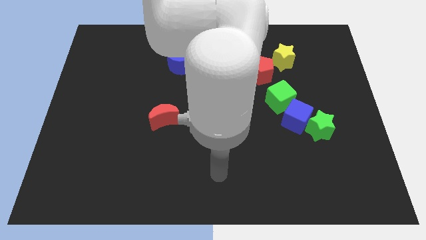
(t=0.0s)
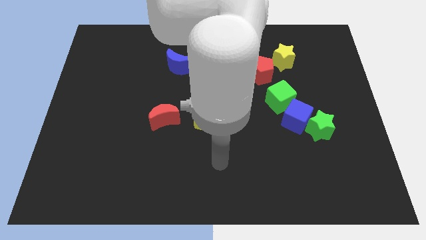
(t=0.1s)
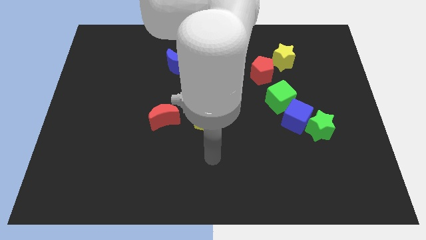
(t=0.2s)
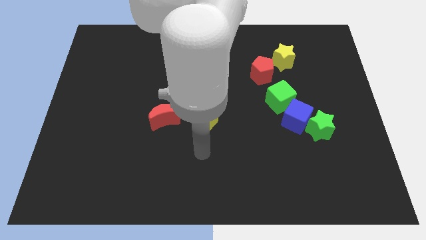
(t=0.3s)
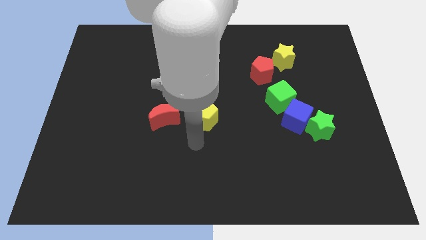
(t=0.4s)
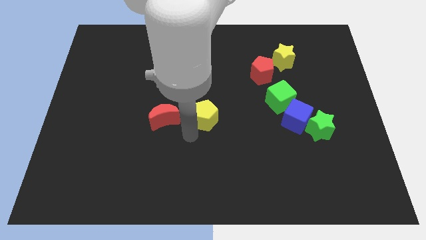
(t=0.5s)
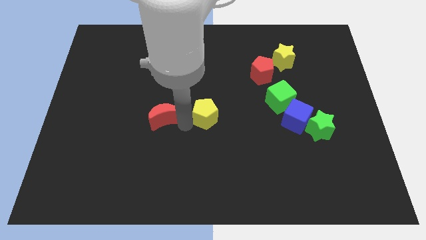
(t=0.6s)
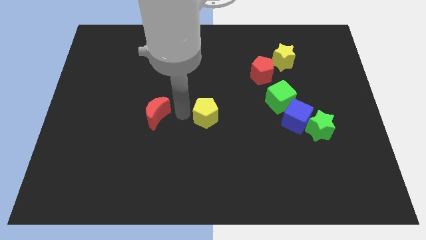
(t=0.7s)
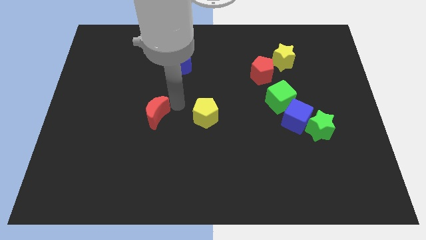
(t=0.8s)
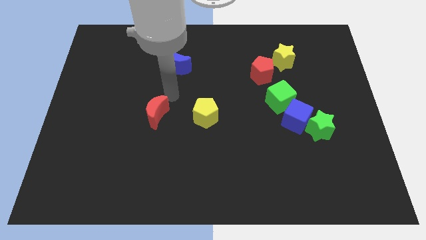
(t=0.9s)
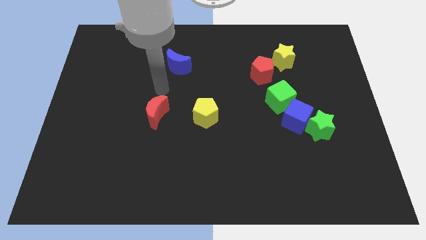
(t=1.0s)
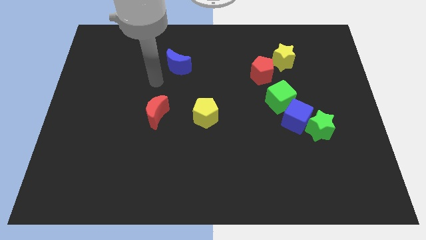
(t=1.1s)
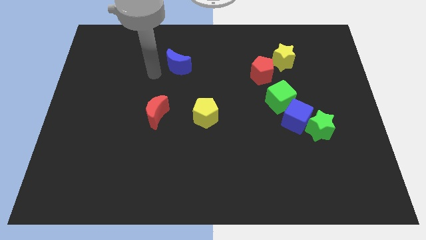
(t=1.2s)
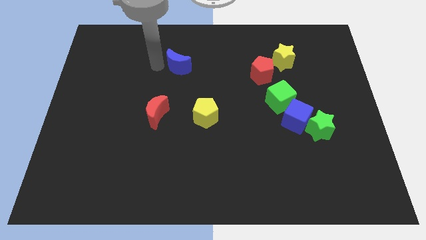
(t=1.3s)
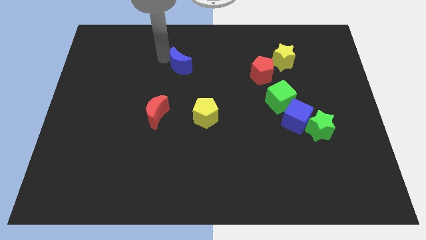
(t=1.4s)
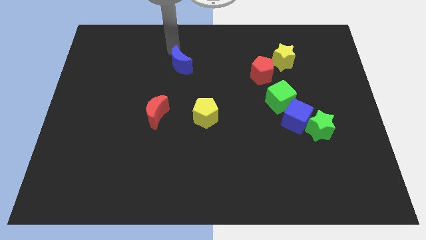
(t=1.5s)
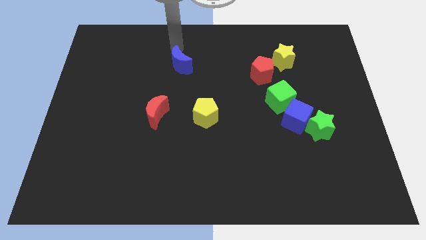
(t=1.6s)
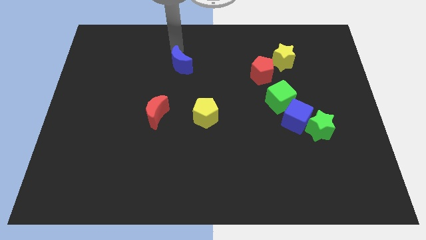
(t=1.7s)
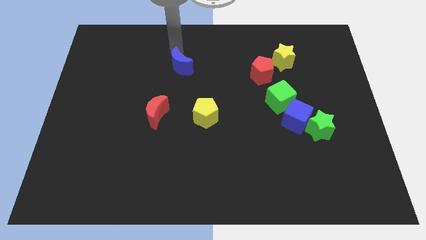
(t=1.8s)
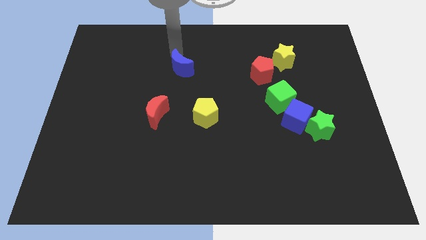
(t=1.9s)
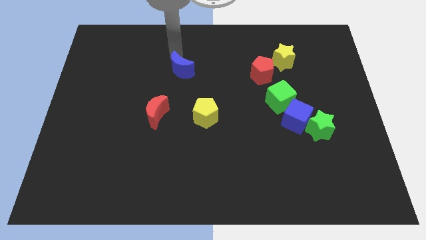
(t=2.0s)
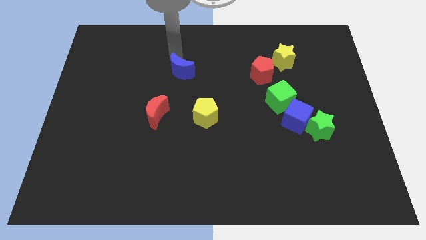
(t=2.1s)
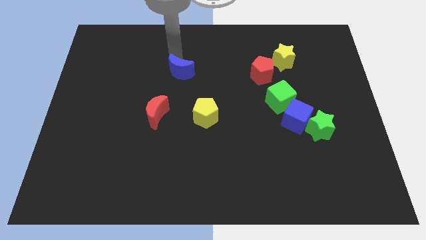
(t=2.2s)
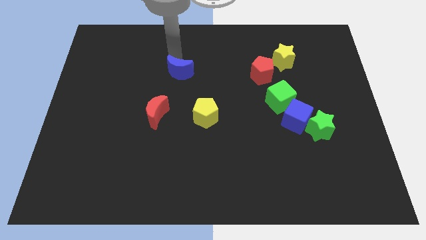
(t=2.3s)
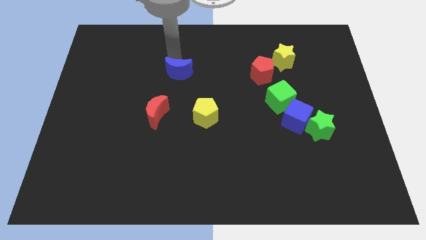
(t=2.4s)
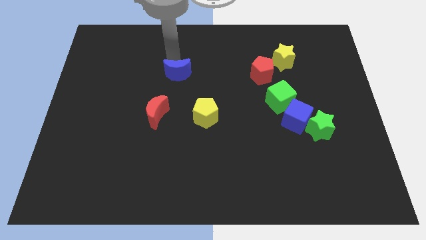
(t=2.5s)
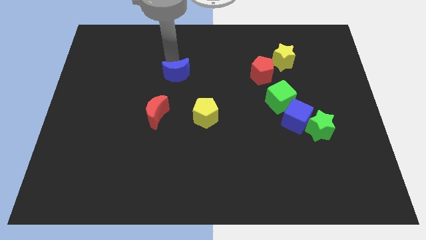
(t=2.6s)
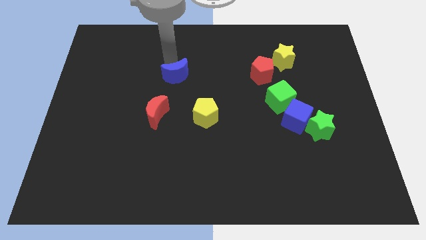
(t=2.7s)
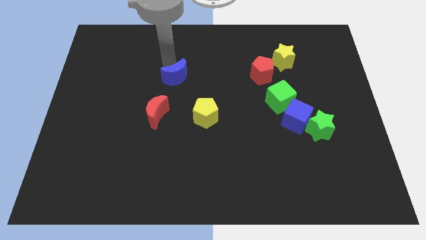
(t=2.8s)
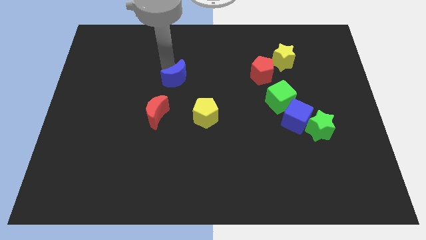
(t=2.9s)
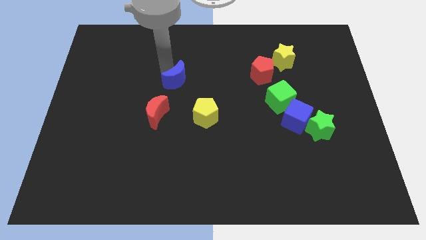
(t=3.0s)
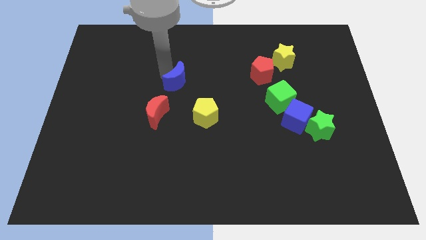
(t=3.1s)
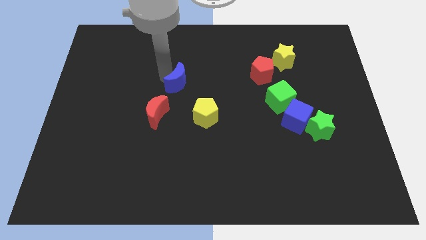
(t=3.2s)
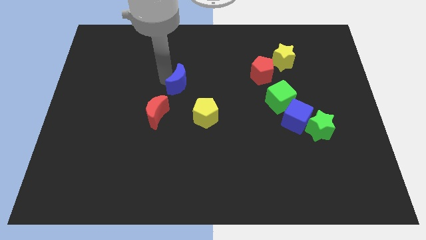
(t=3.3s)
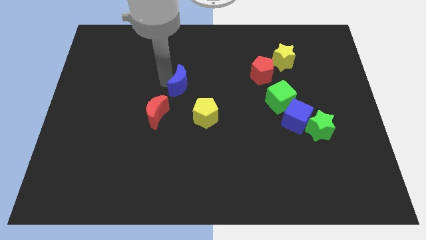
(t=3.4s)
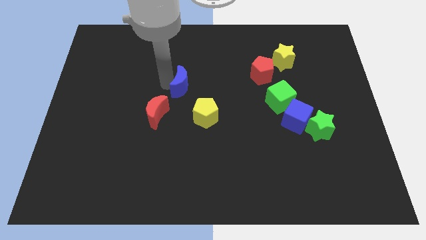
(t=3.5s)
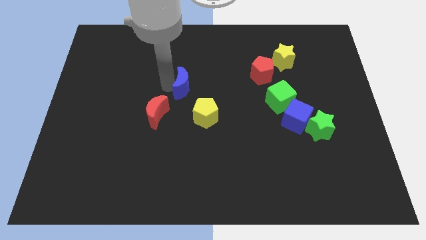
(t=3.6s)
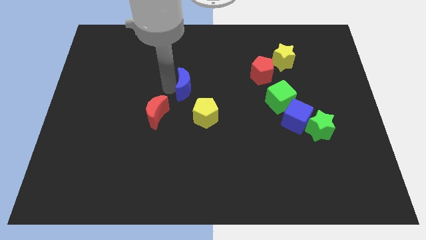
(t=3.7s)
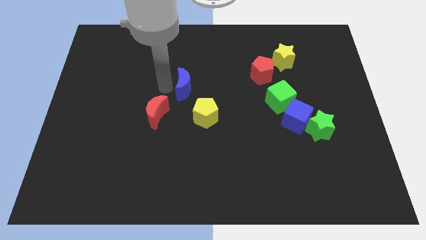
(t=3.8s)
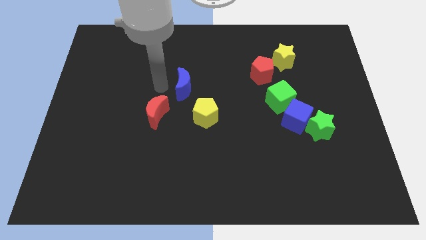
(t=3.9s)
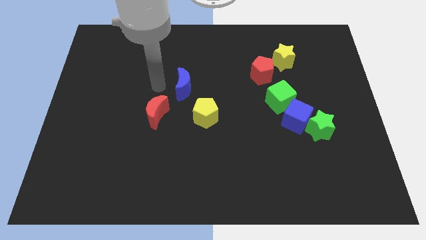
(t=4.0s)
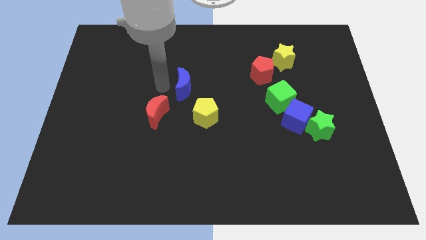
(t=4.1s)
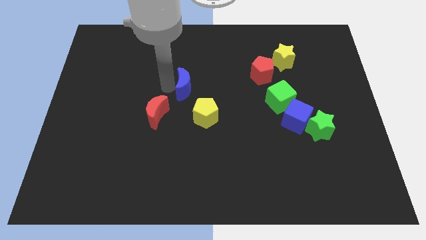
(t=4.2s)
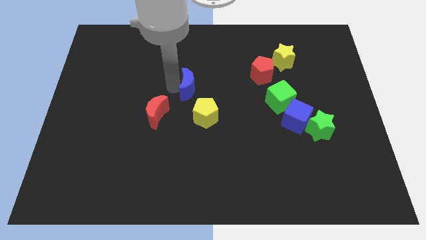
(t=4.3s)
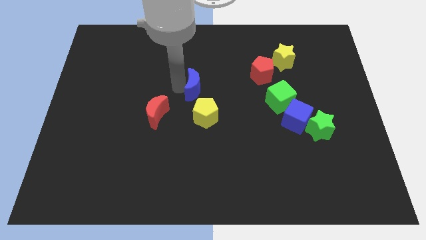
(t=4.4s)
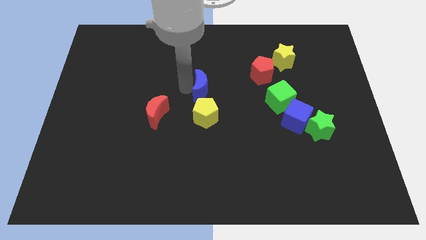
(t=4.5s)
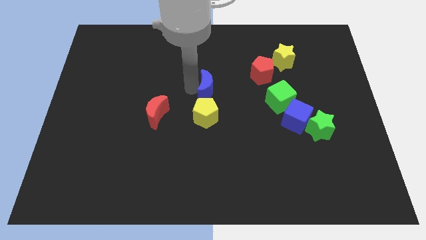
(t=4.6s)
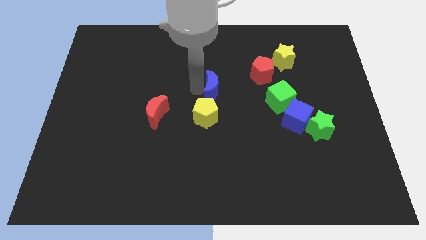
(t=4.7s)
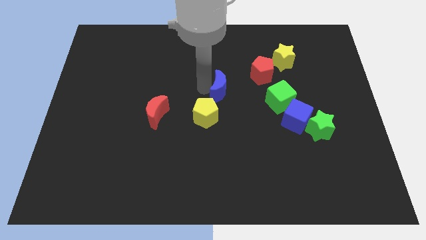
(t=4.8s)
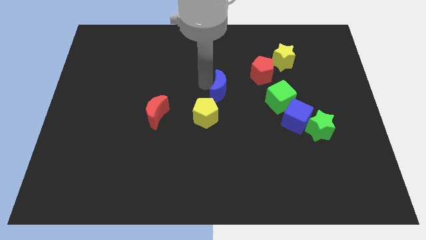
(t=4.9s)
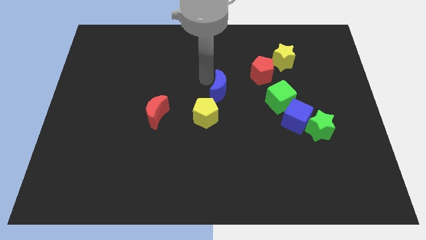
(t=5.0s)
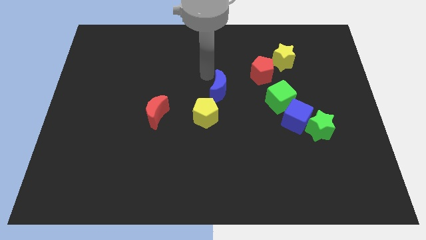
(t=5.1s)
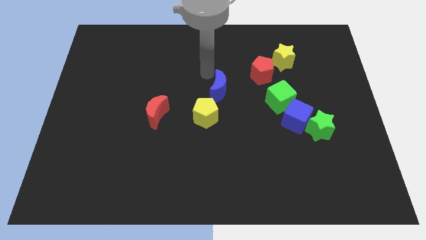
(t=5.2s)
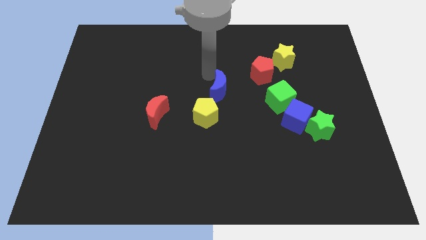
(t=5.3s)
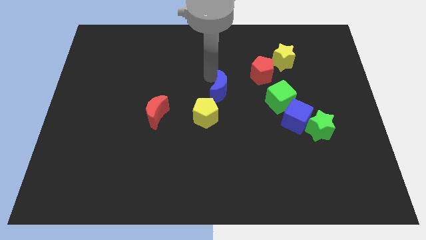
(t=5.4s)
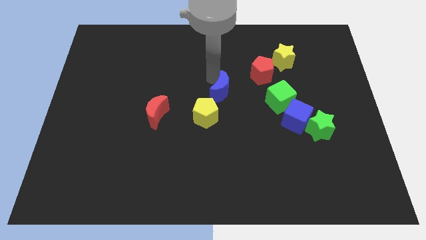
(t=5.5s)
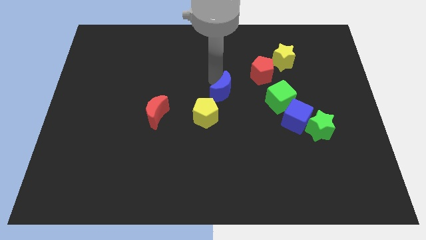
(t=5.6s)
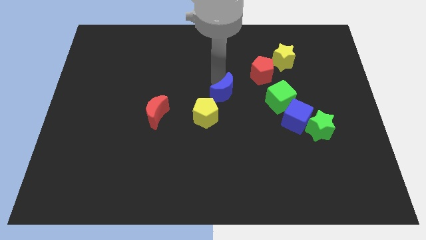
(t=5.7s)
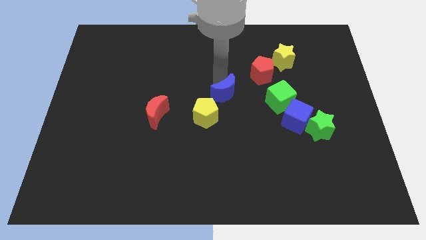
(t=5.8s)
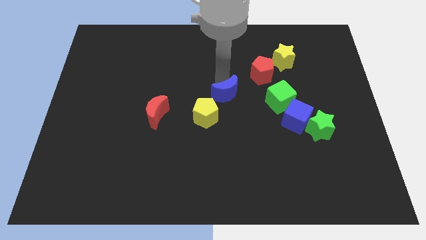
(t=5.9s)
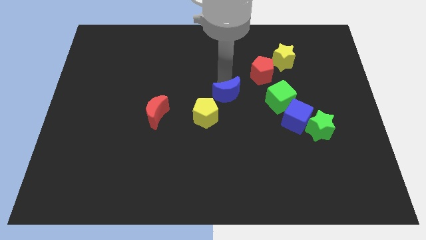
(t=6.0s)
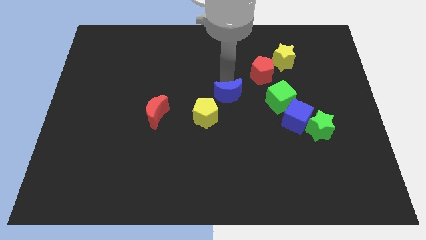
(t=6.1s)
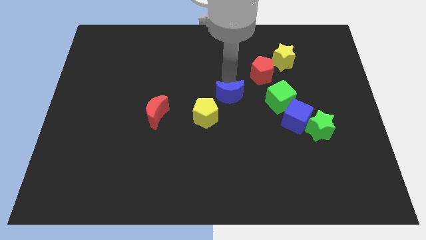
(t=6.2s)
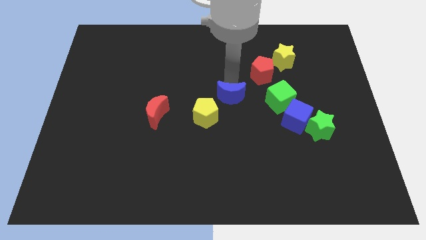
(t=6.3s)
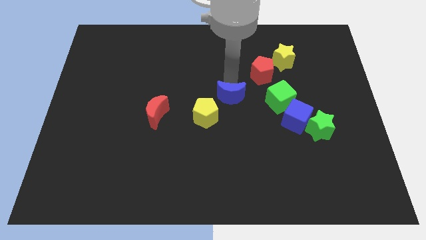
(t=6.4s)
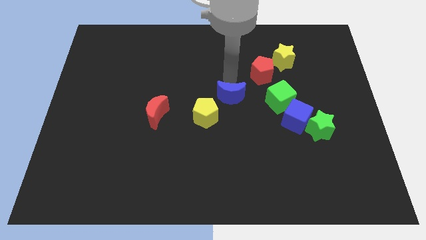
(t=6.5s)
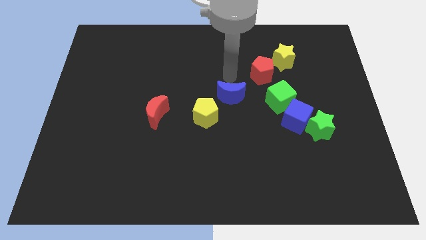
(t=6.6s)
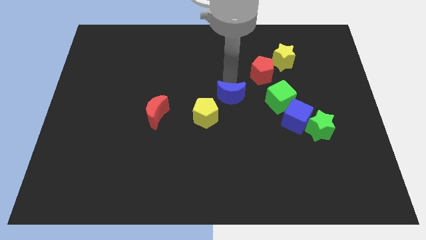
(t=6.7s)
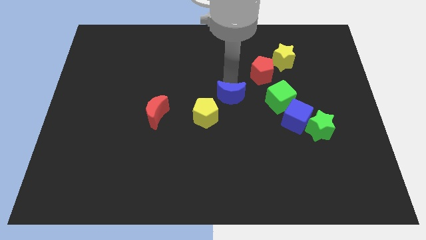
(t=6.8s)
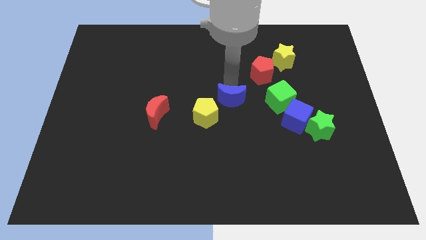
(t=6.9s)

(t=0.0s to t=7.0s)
put the blue moon just right of the yellow pentagon

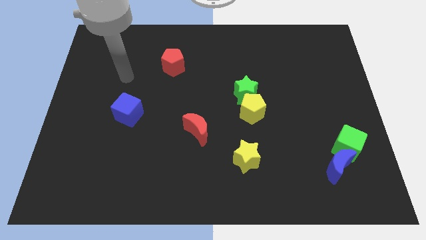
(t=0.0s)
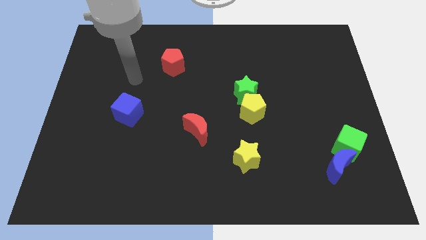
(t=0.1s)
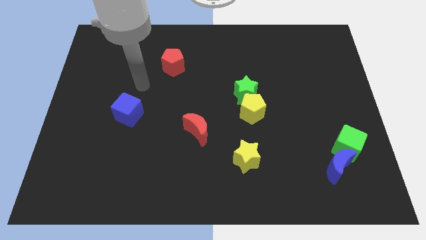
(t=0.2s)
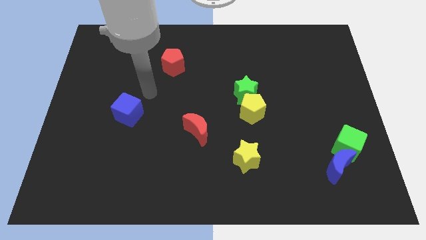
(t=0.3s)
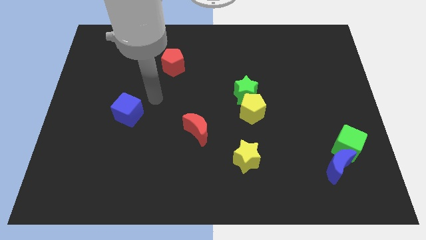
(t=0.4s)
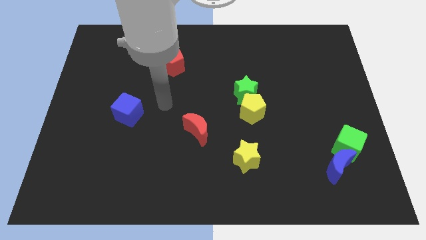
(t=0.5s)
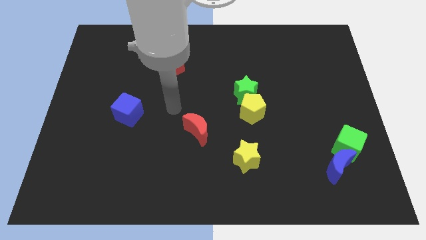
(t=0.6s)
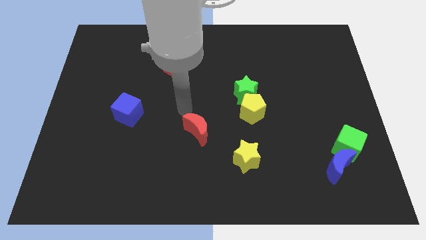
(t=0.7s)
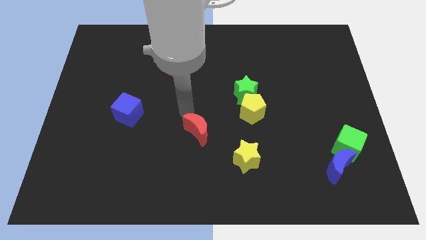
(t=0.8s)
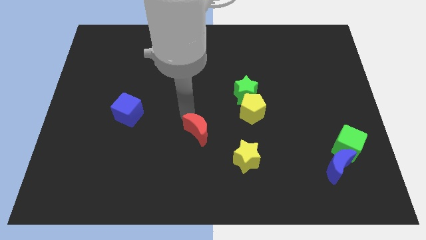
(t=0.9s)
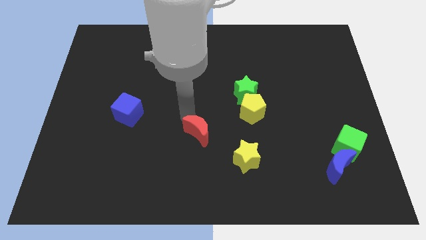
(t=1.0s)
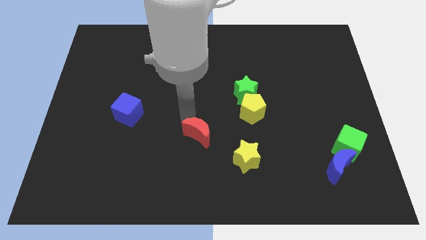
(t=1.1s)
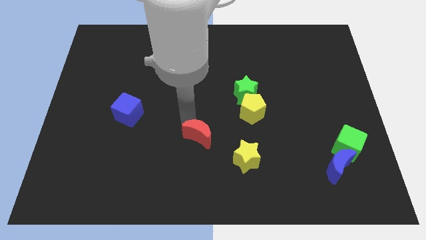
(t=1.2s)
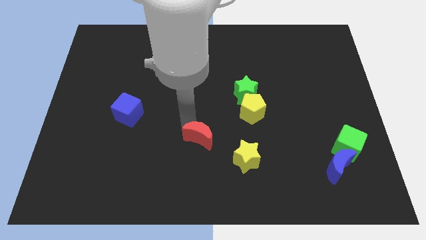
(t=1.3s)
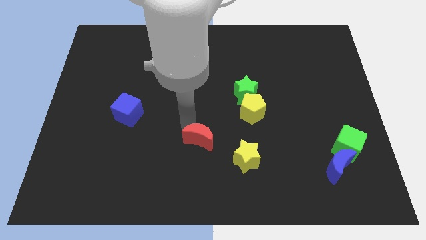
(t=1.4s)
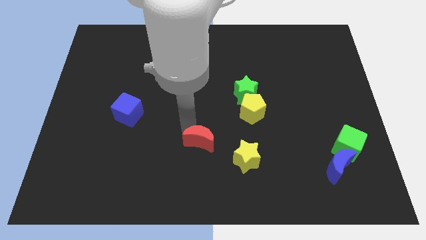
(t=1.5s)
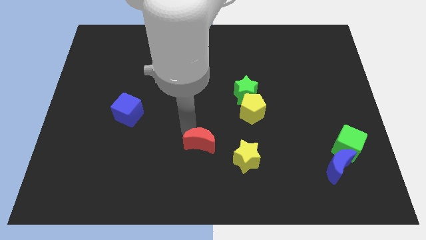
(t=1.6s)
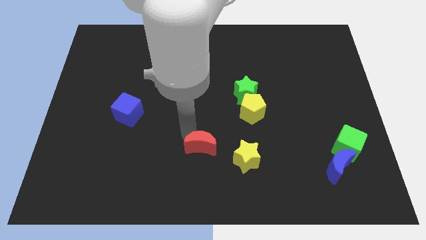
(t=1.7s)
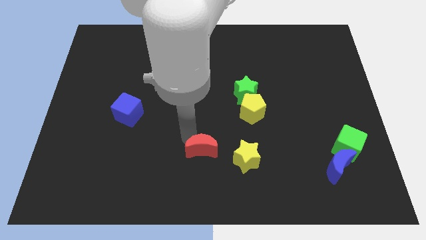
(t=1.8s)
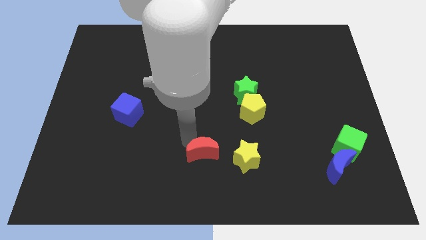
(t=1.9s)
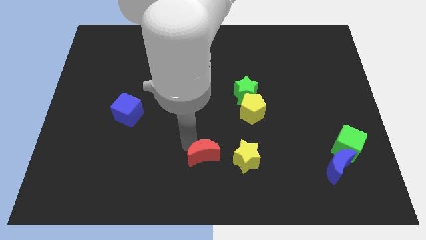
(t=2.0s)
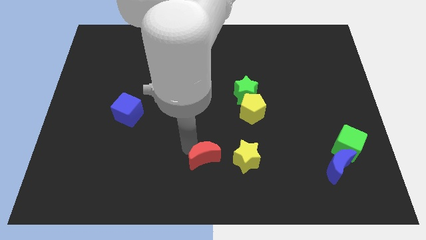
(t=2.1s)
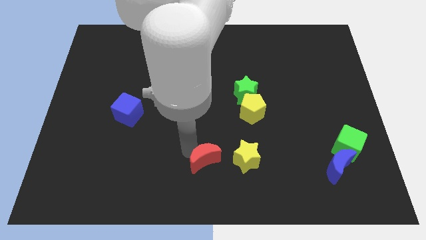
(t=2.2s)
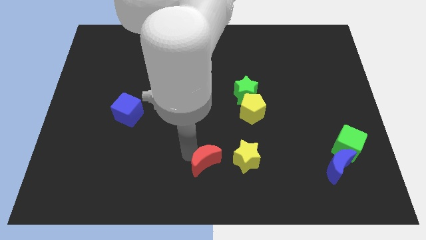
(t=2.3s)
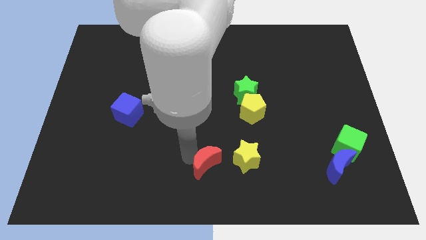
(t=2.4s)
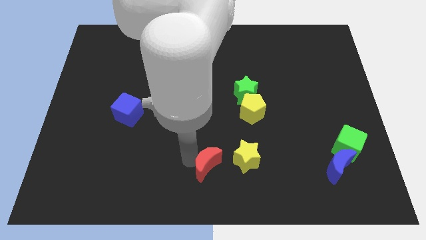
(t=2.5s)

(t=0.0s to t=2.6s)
push the red moon to the bottom left of the yellow star
